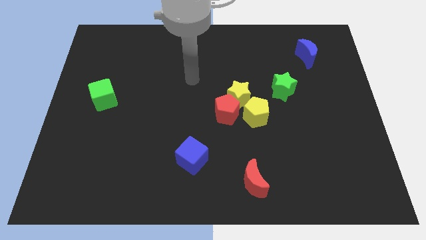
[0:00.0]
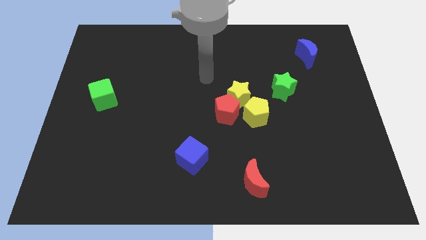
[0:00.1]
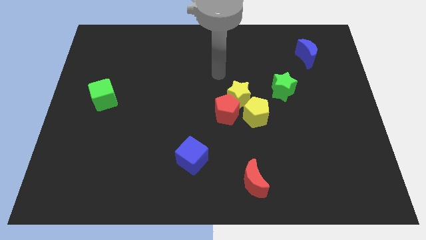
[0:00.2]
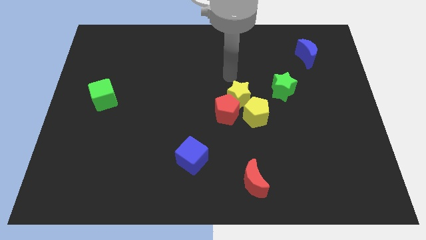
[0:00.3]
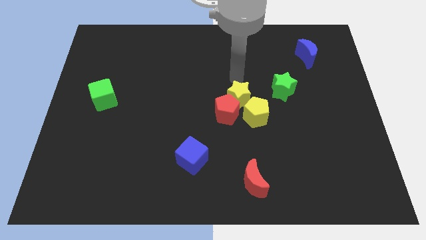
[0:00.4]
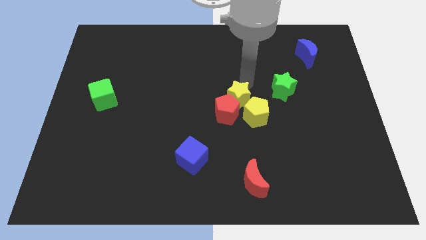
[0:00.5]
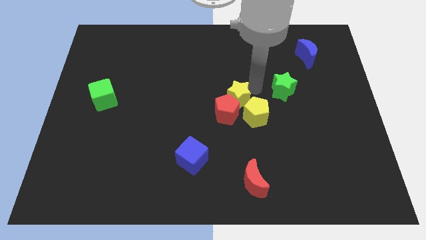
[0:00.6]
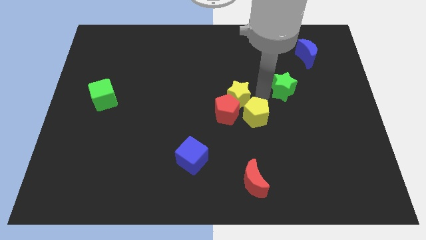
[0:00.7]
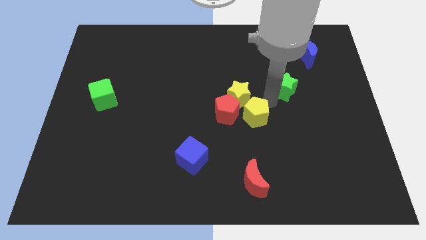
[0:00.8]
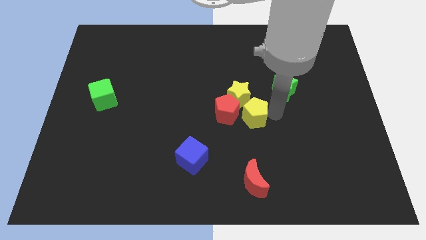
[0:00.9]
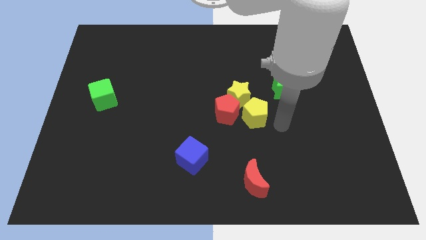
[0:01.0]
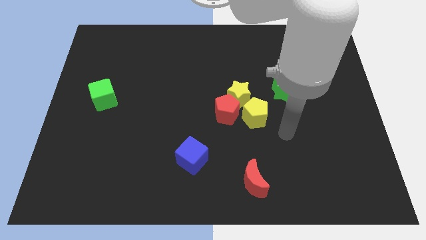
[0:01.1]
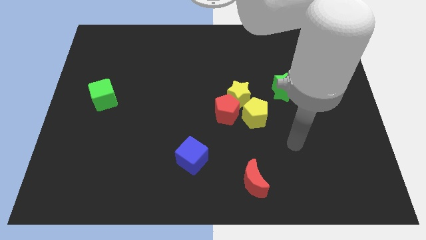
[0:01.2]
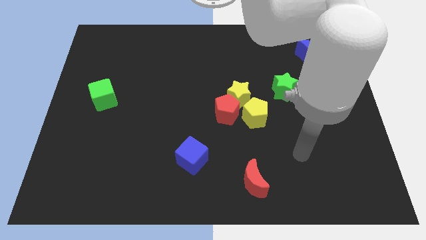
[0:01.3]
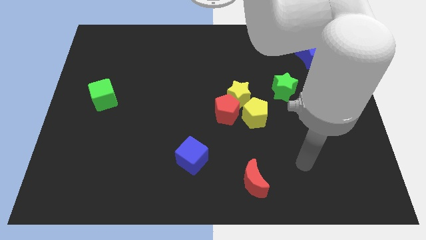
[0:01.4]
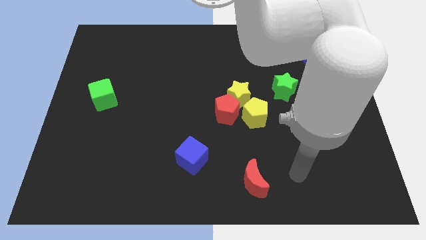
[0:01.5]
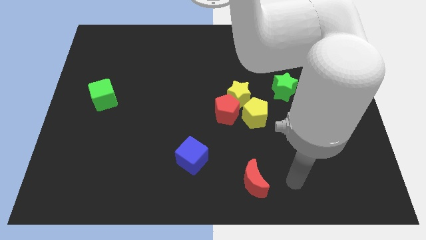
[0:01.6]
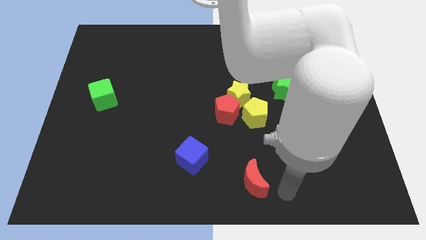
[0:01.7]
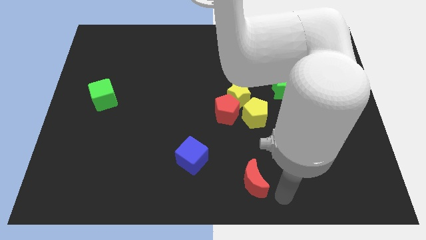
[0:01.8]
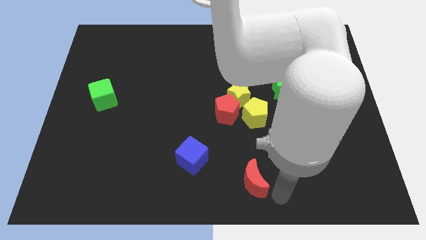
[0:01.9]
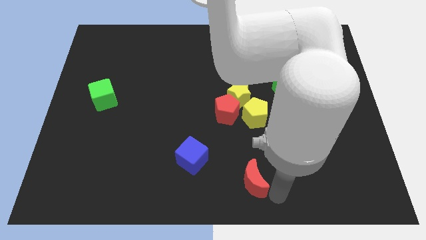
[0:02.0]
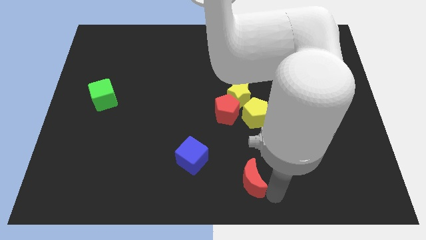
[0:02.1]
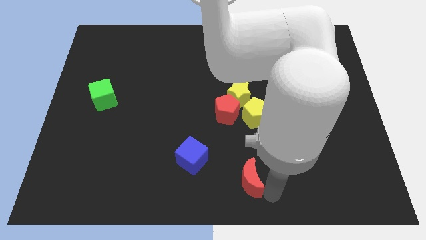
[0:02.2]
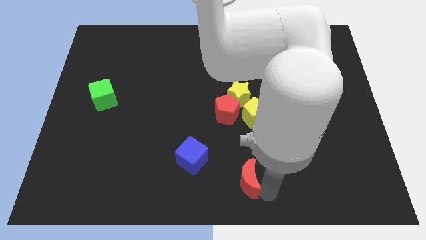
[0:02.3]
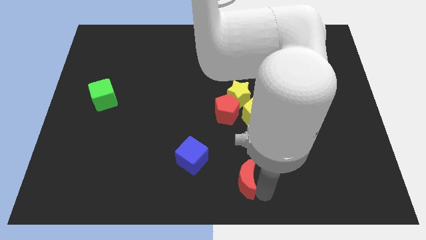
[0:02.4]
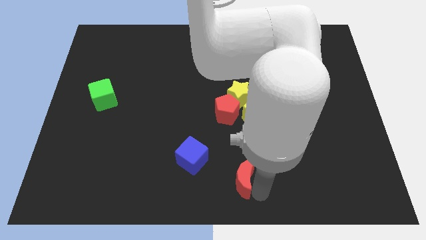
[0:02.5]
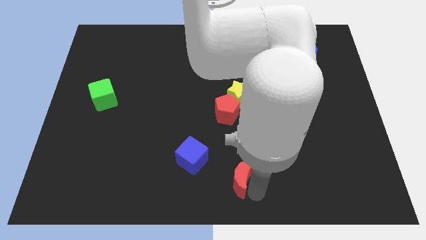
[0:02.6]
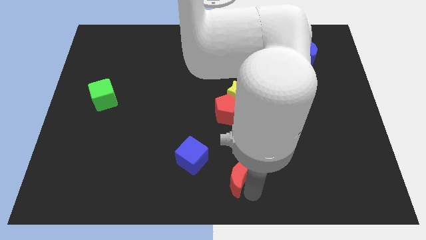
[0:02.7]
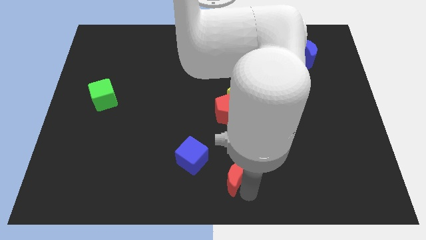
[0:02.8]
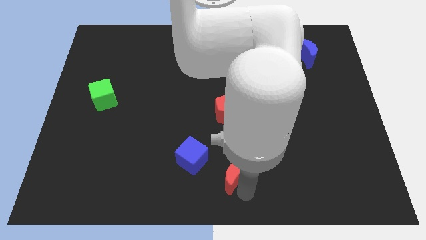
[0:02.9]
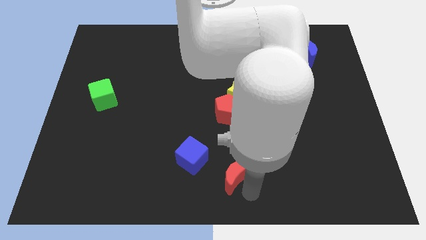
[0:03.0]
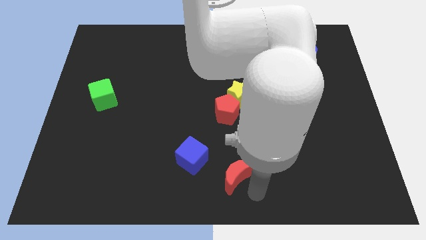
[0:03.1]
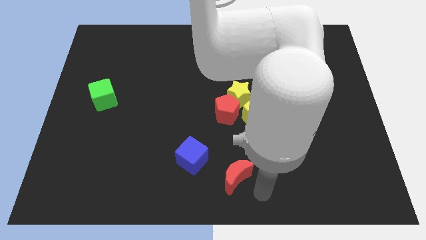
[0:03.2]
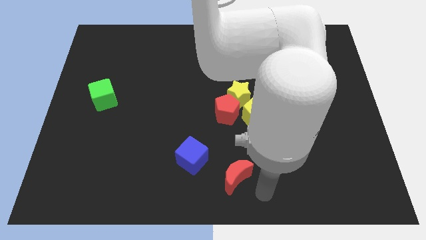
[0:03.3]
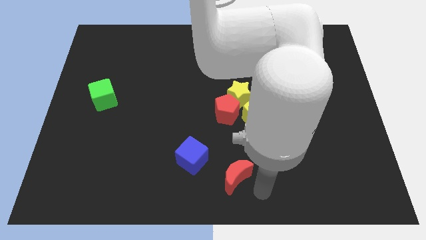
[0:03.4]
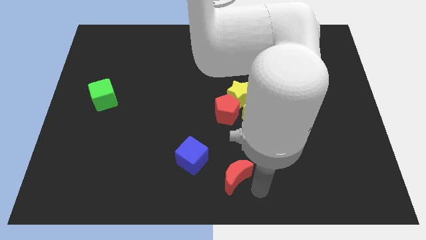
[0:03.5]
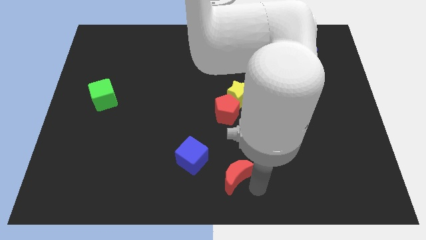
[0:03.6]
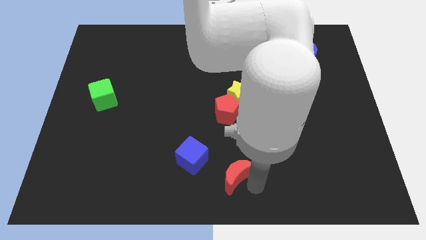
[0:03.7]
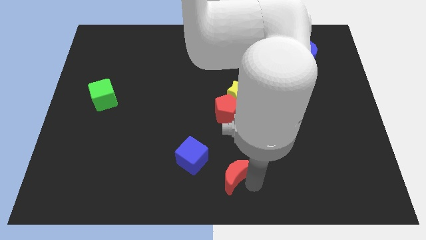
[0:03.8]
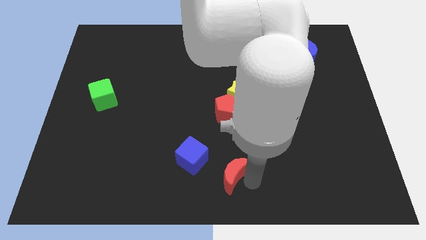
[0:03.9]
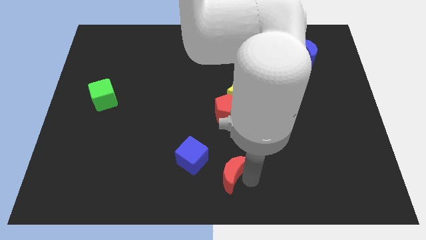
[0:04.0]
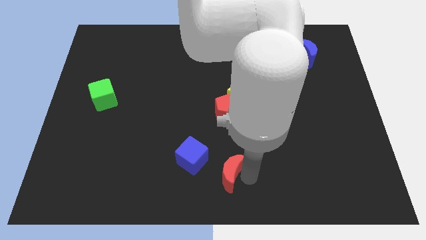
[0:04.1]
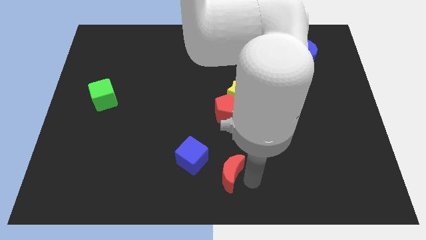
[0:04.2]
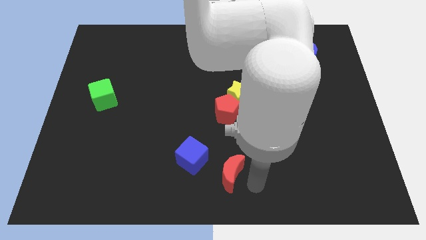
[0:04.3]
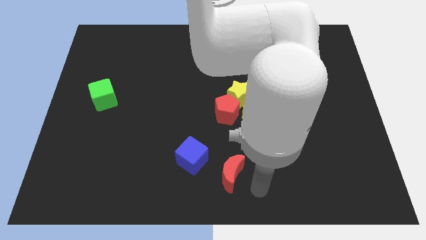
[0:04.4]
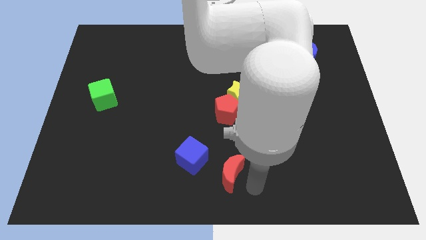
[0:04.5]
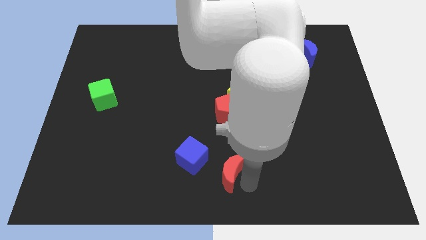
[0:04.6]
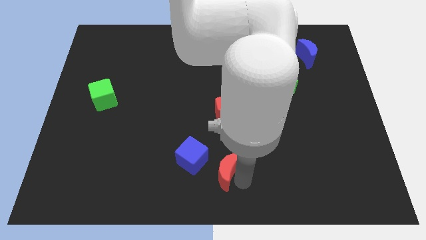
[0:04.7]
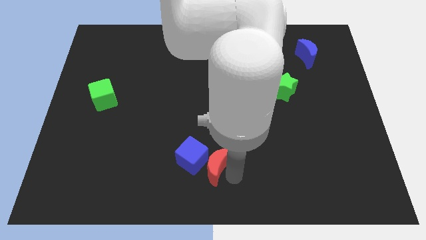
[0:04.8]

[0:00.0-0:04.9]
push the red moon close to the blue cube

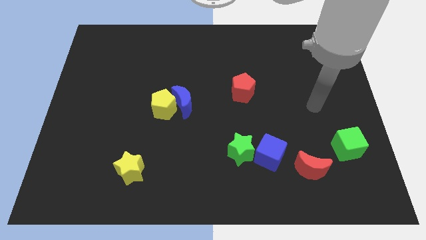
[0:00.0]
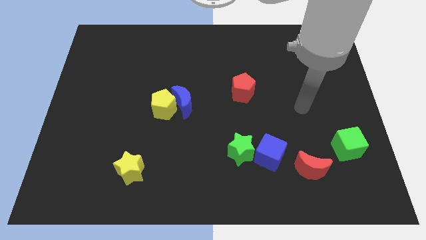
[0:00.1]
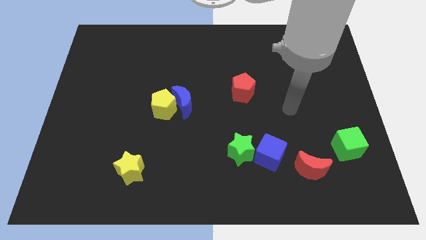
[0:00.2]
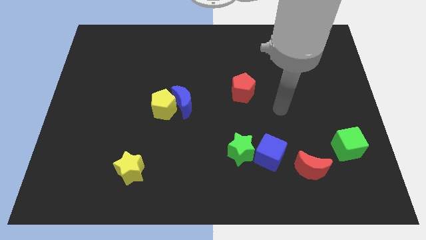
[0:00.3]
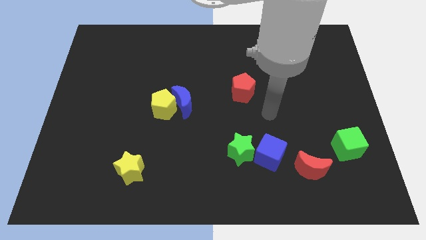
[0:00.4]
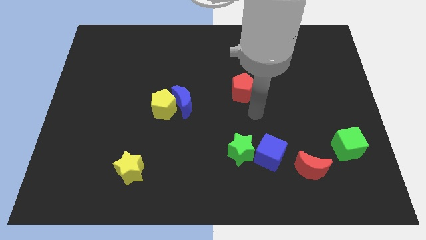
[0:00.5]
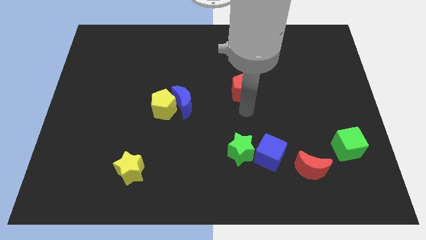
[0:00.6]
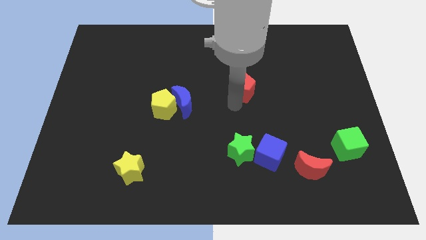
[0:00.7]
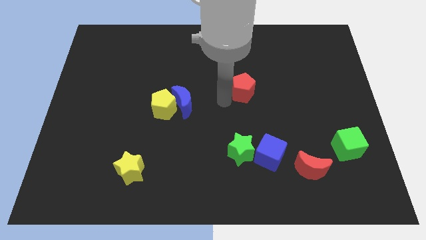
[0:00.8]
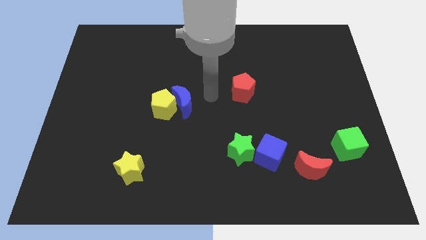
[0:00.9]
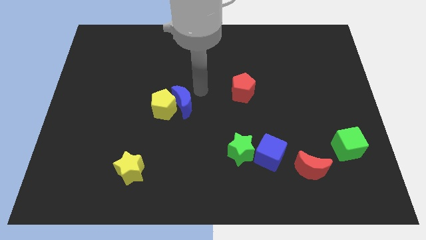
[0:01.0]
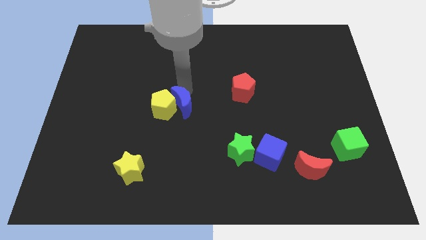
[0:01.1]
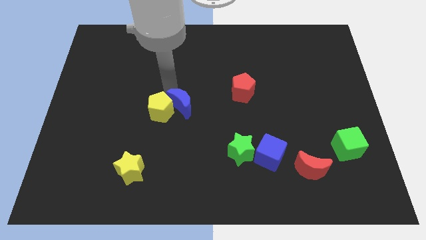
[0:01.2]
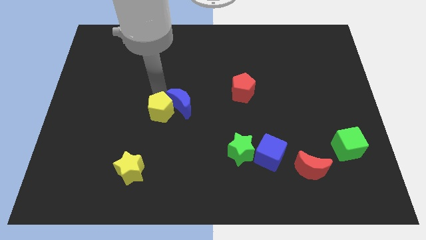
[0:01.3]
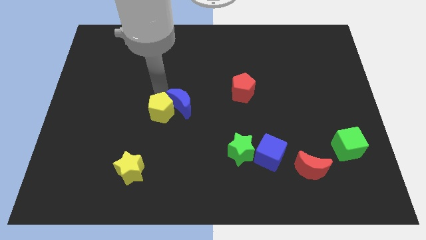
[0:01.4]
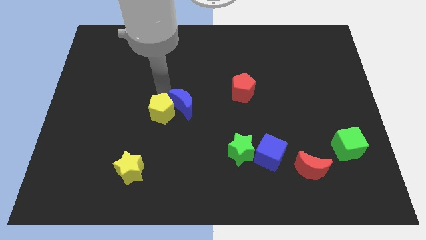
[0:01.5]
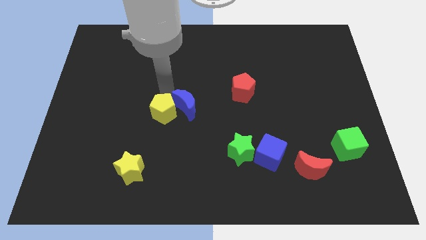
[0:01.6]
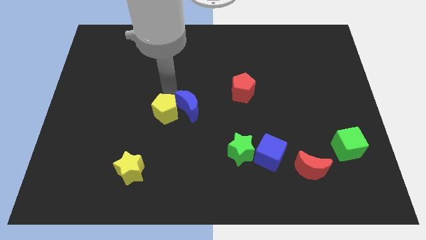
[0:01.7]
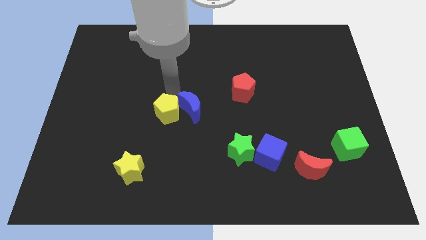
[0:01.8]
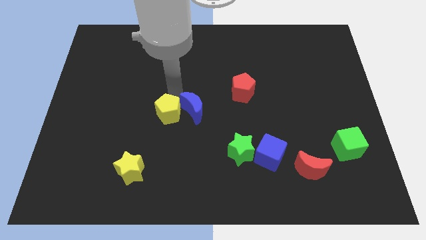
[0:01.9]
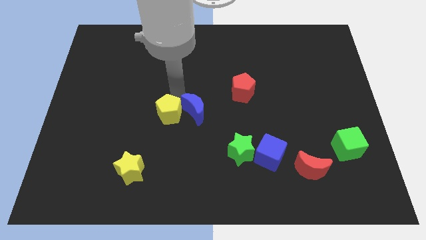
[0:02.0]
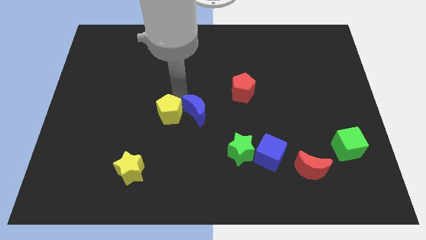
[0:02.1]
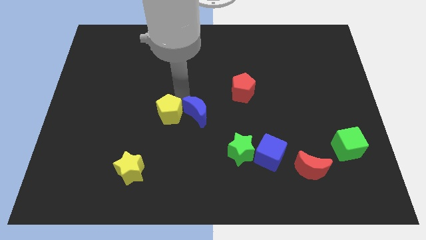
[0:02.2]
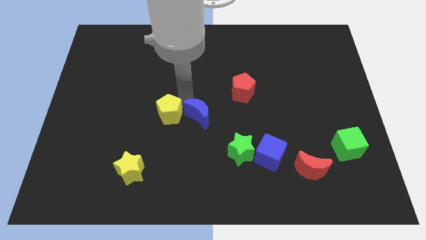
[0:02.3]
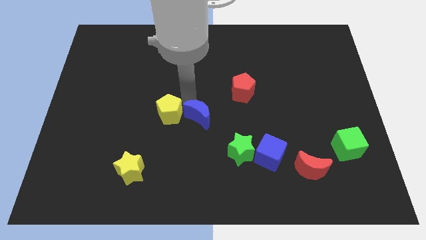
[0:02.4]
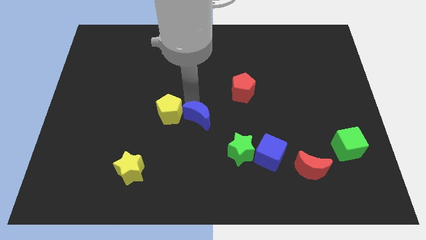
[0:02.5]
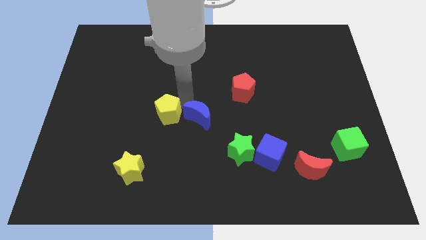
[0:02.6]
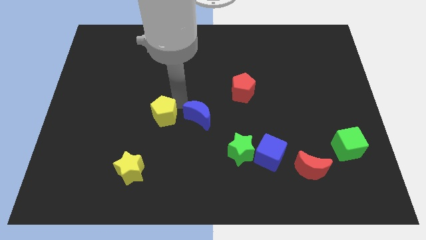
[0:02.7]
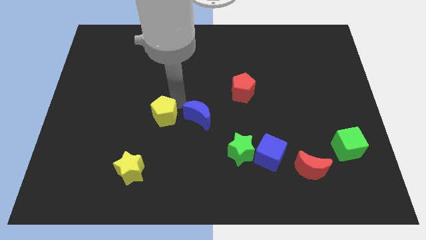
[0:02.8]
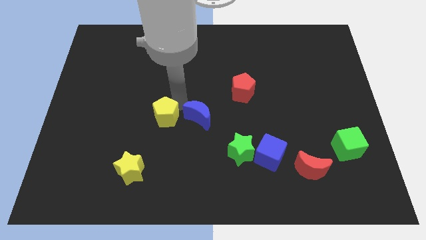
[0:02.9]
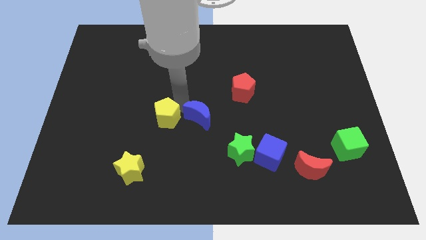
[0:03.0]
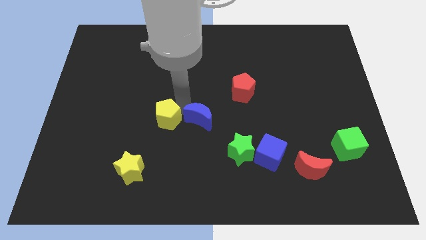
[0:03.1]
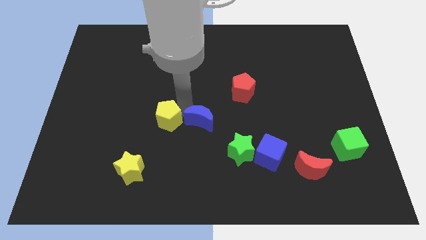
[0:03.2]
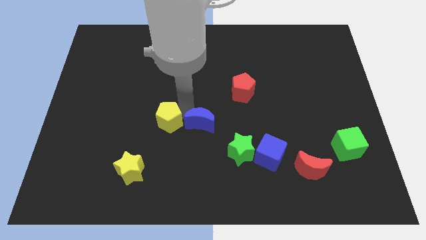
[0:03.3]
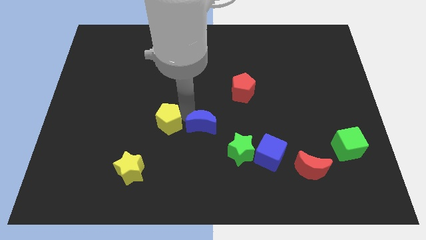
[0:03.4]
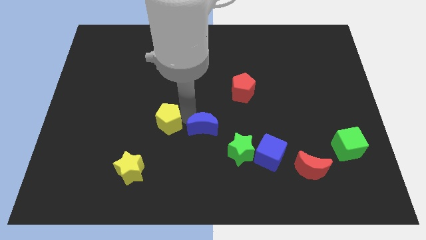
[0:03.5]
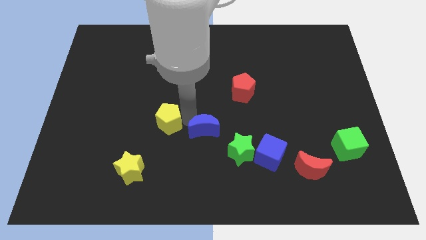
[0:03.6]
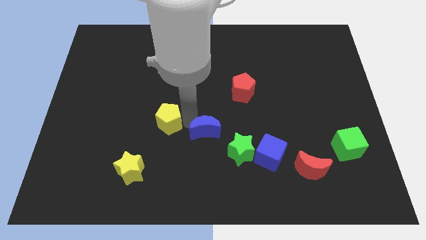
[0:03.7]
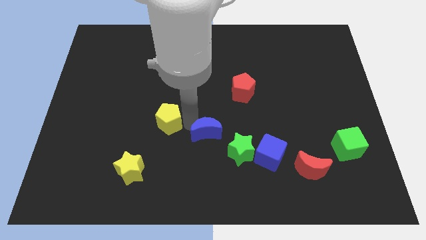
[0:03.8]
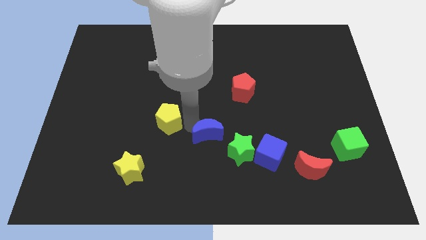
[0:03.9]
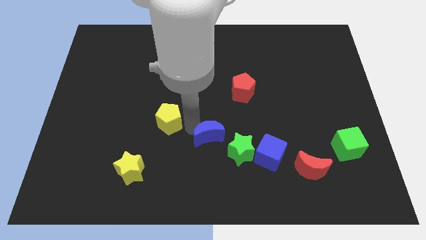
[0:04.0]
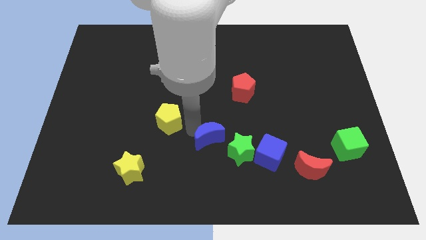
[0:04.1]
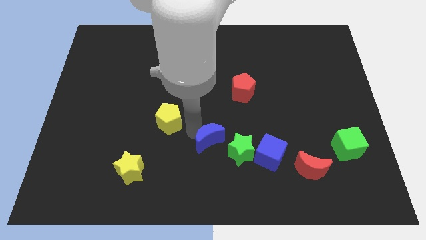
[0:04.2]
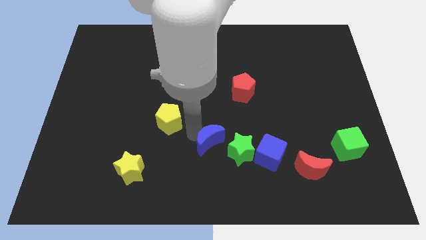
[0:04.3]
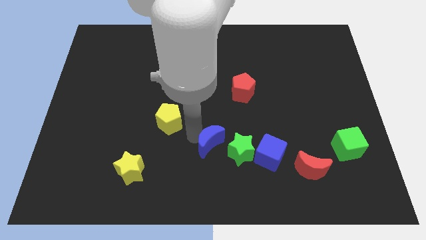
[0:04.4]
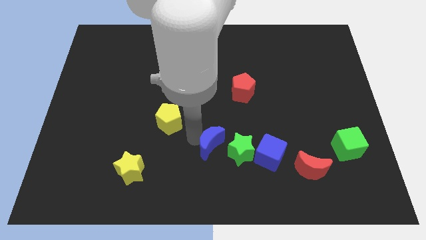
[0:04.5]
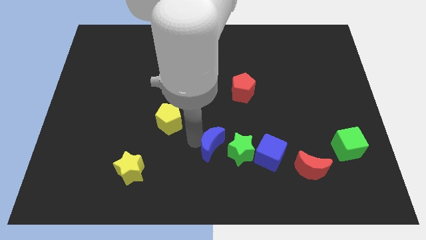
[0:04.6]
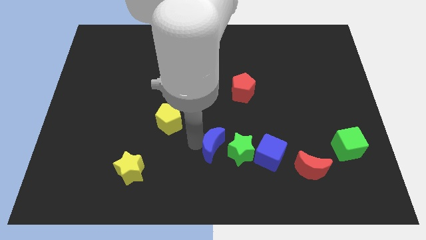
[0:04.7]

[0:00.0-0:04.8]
slide the blue moon to the green star
